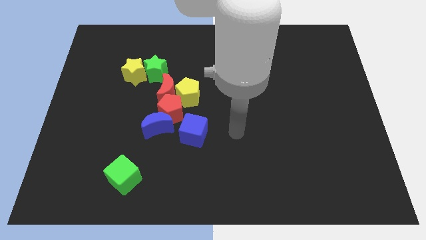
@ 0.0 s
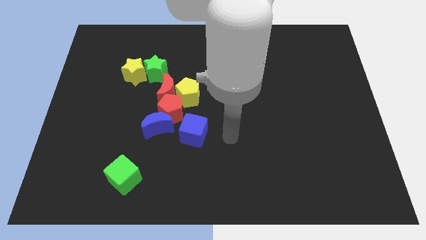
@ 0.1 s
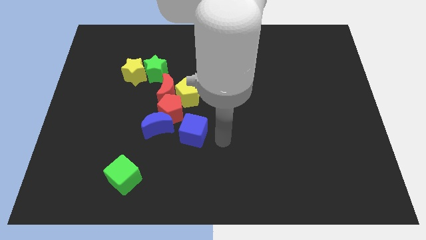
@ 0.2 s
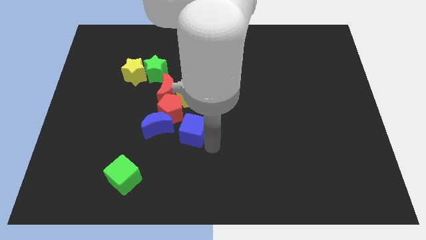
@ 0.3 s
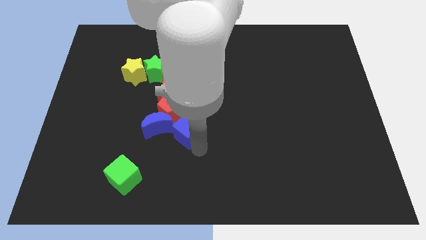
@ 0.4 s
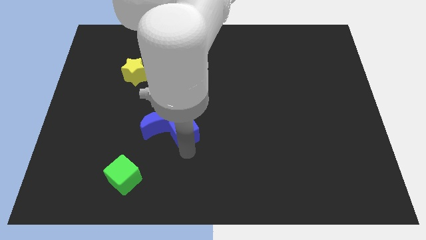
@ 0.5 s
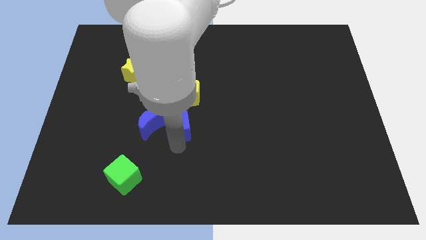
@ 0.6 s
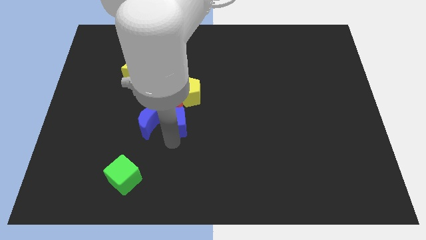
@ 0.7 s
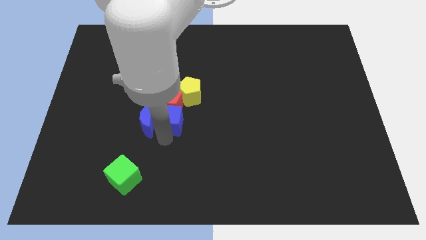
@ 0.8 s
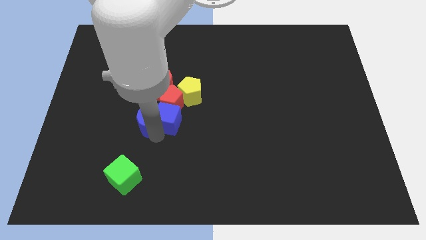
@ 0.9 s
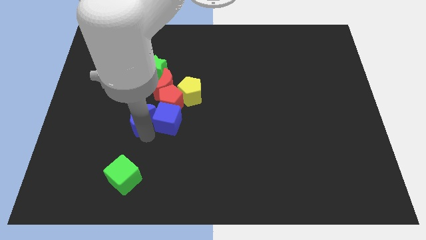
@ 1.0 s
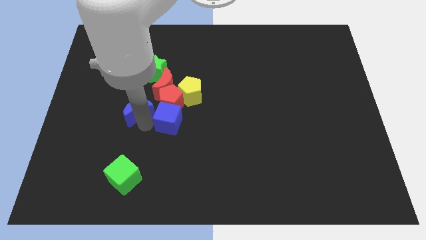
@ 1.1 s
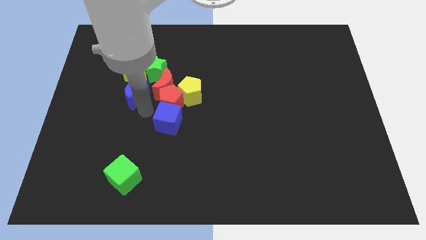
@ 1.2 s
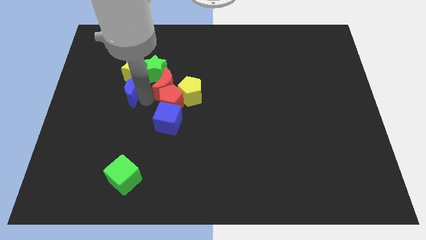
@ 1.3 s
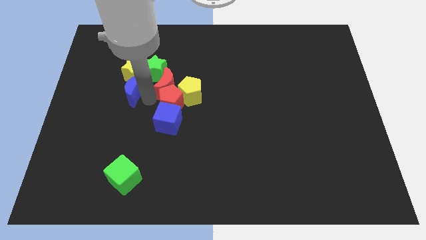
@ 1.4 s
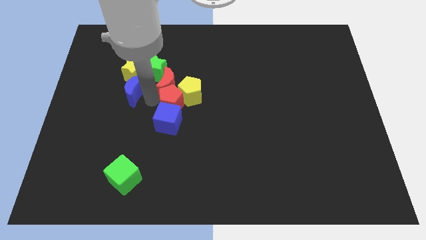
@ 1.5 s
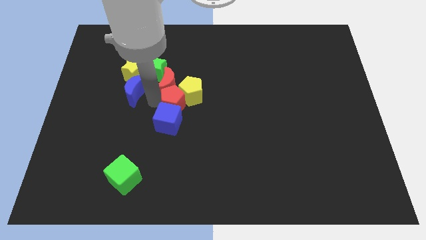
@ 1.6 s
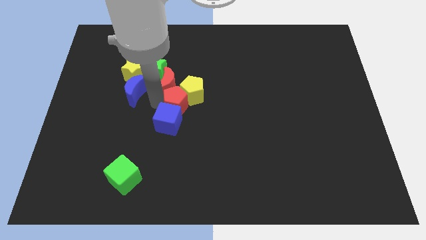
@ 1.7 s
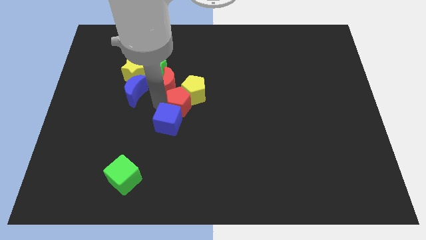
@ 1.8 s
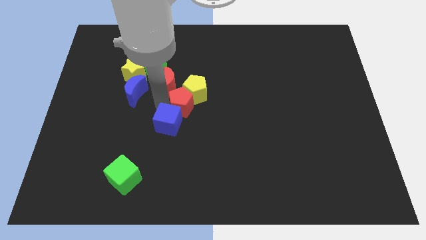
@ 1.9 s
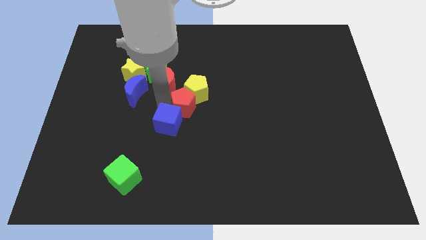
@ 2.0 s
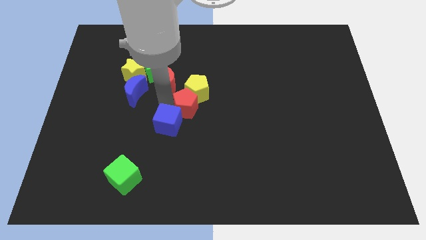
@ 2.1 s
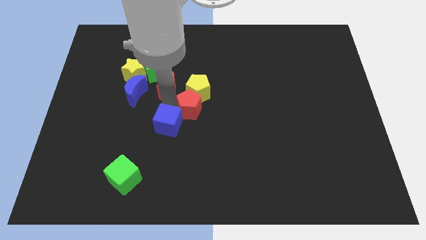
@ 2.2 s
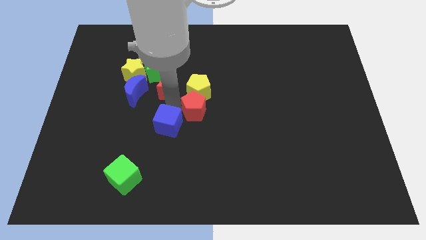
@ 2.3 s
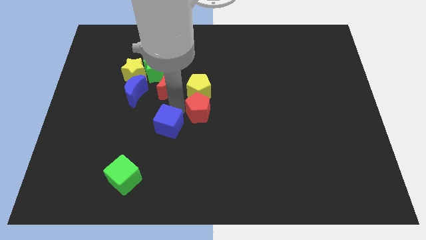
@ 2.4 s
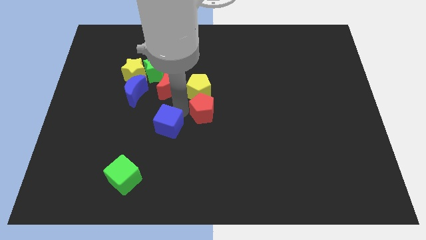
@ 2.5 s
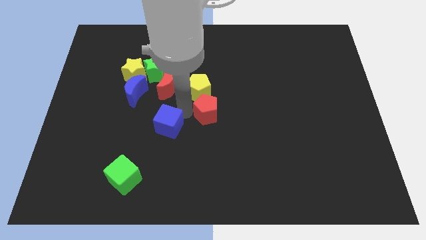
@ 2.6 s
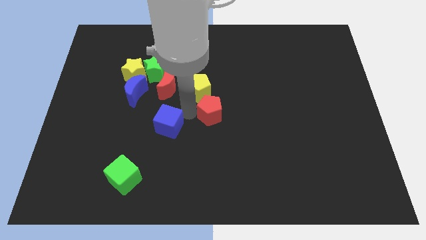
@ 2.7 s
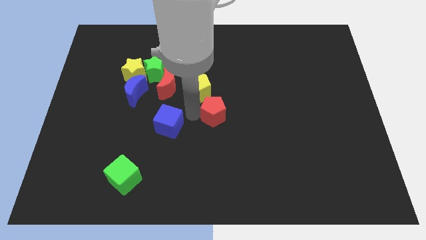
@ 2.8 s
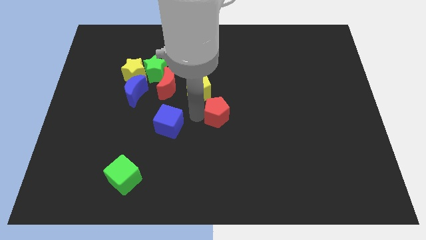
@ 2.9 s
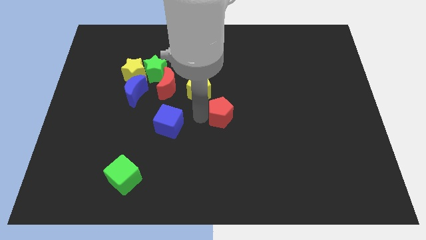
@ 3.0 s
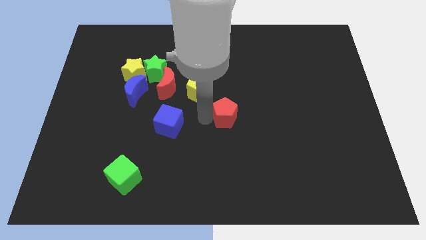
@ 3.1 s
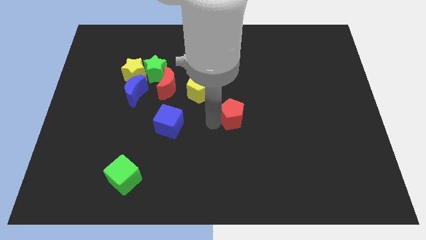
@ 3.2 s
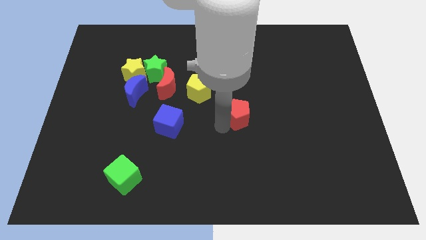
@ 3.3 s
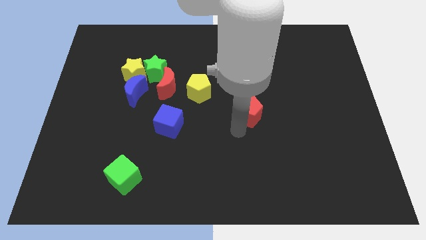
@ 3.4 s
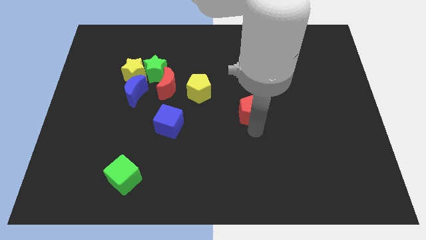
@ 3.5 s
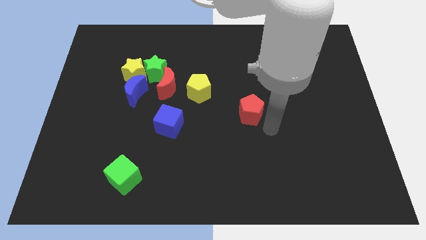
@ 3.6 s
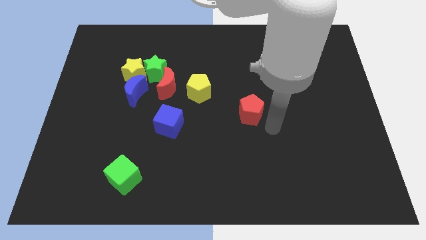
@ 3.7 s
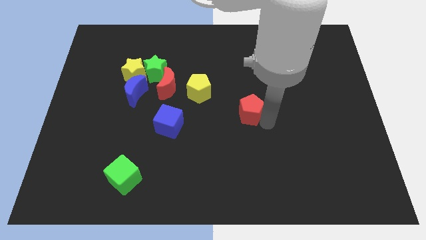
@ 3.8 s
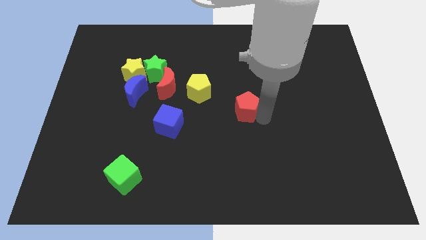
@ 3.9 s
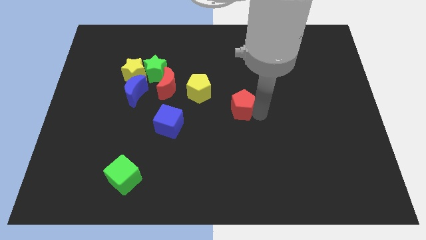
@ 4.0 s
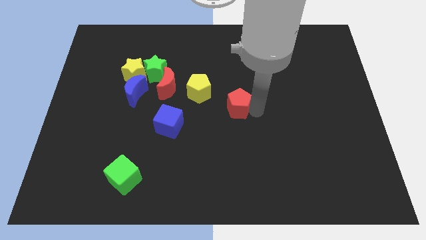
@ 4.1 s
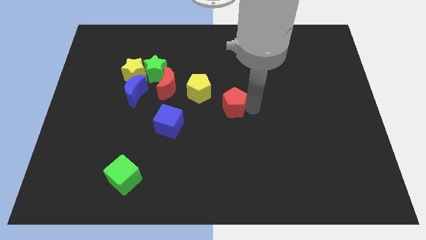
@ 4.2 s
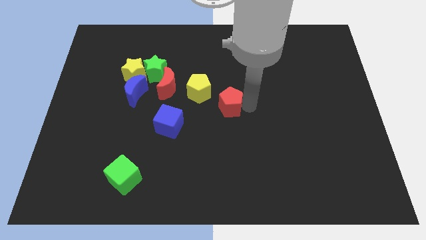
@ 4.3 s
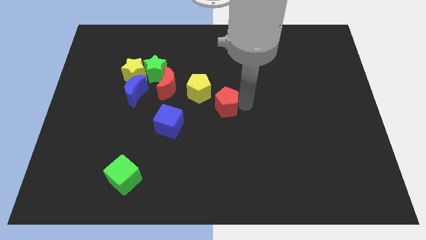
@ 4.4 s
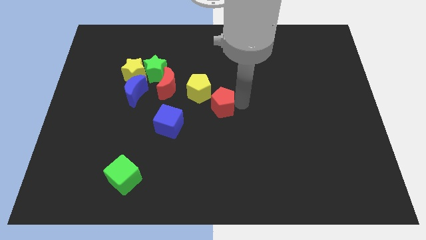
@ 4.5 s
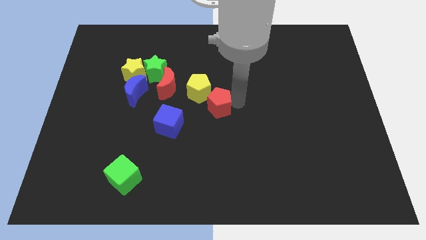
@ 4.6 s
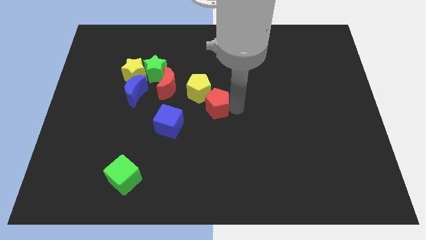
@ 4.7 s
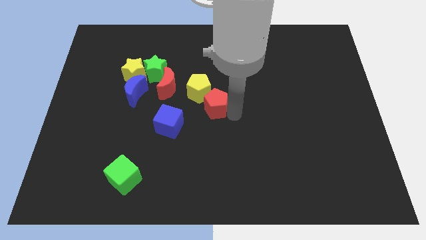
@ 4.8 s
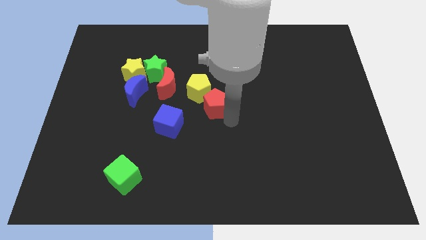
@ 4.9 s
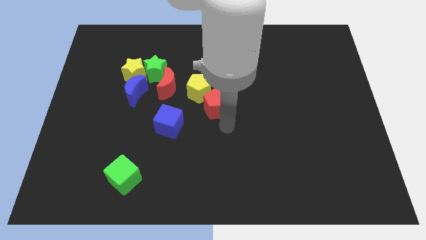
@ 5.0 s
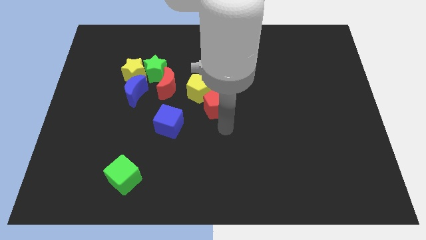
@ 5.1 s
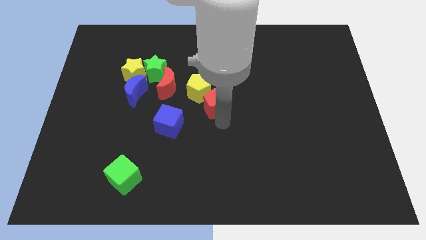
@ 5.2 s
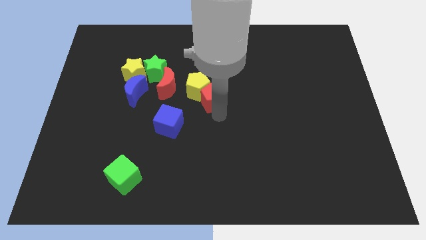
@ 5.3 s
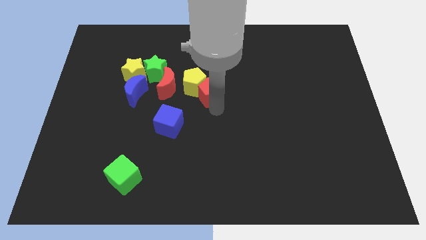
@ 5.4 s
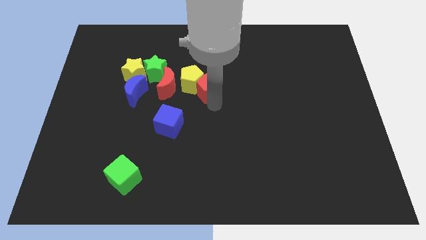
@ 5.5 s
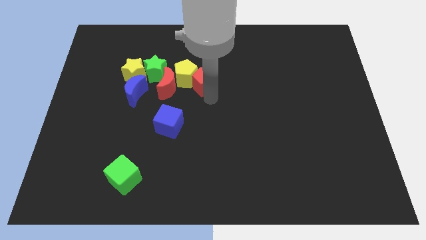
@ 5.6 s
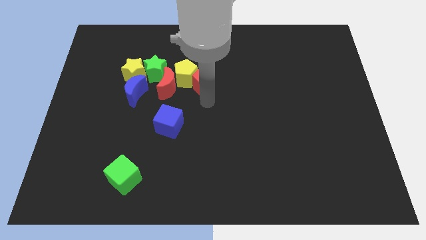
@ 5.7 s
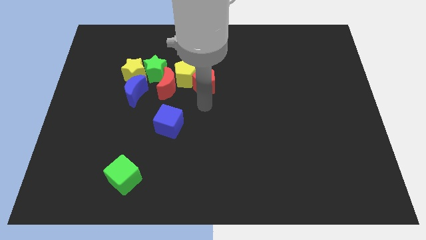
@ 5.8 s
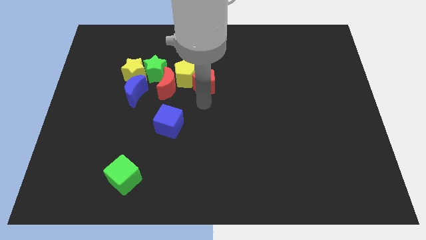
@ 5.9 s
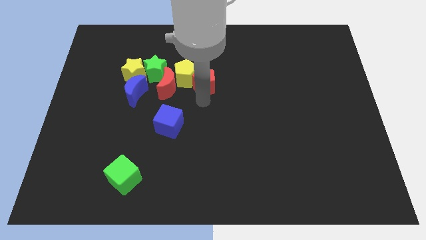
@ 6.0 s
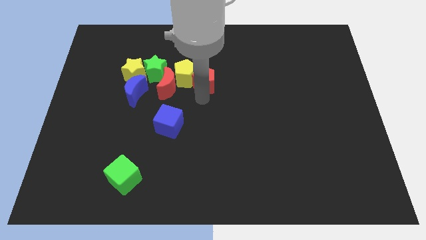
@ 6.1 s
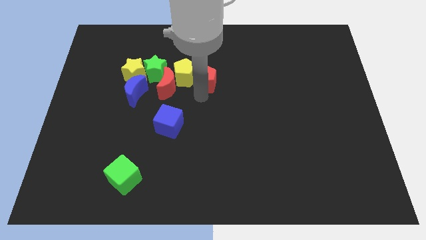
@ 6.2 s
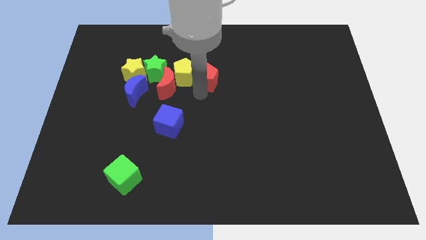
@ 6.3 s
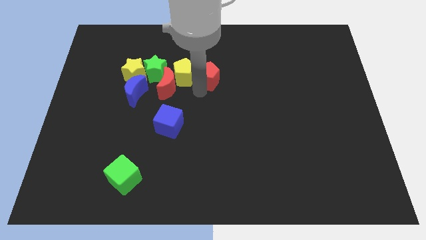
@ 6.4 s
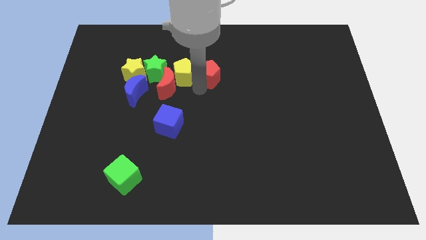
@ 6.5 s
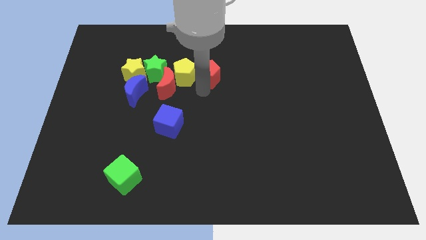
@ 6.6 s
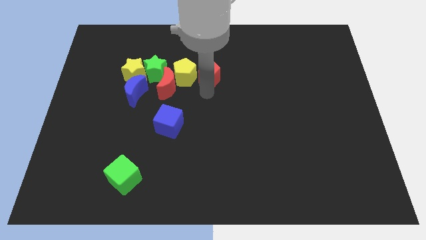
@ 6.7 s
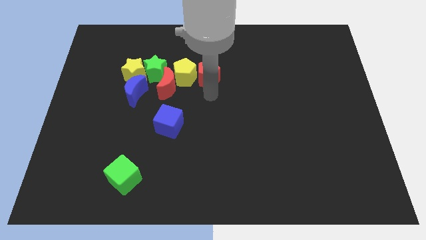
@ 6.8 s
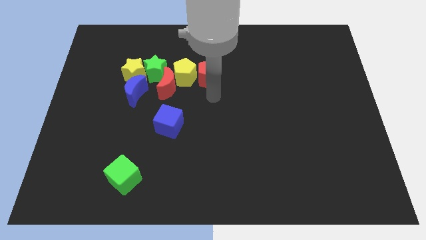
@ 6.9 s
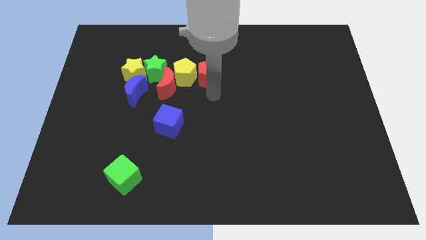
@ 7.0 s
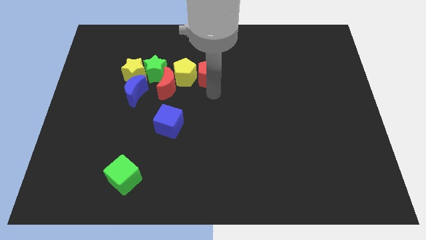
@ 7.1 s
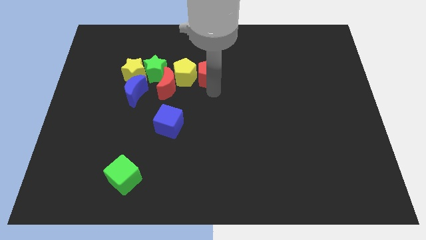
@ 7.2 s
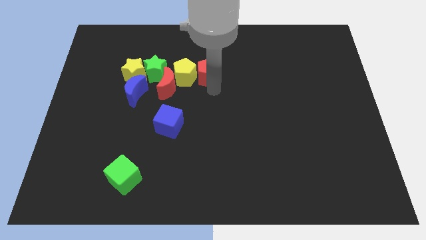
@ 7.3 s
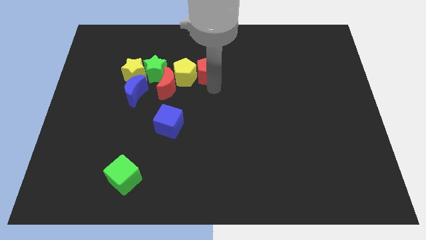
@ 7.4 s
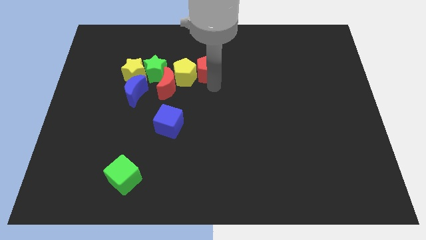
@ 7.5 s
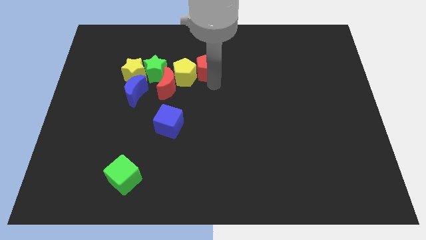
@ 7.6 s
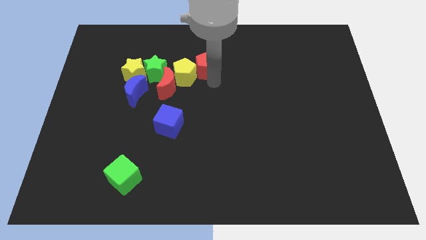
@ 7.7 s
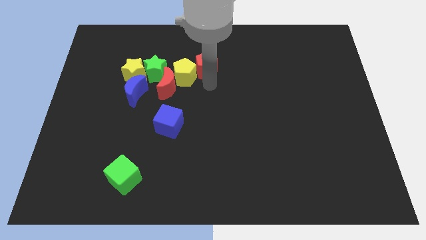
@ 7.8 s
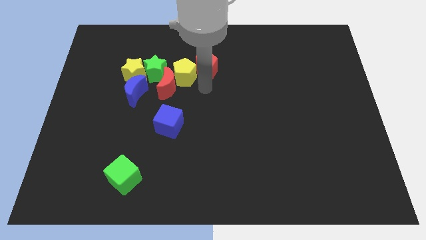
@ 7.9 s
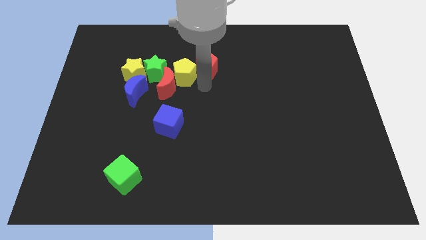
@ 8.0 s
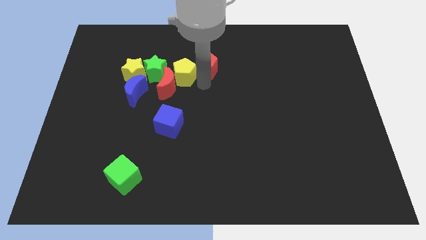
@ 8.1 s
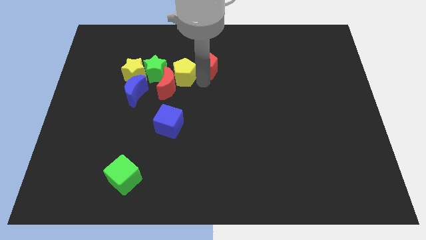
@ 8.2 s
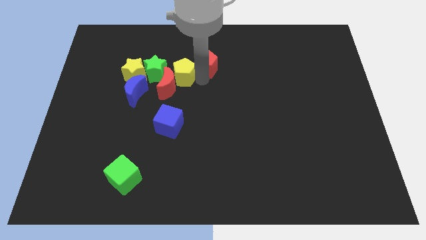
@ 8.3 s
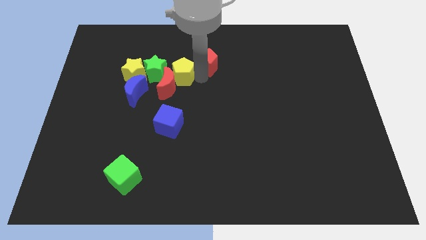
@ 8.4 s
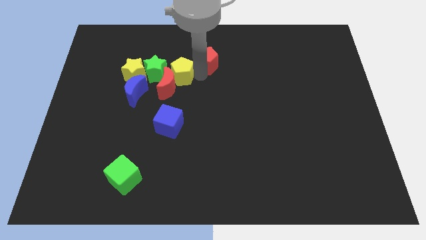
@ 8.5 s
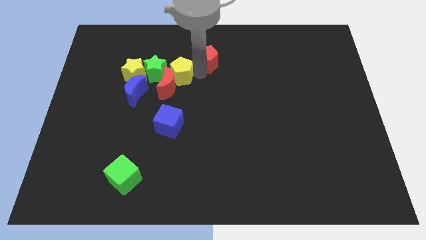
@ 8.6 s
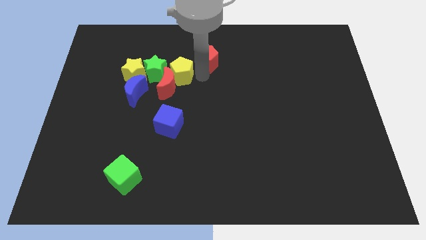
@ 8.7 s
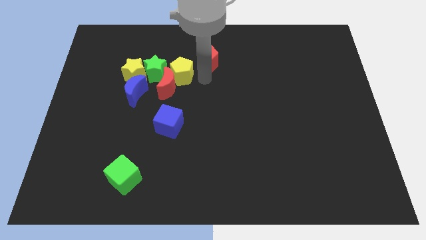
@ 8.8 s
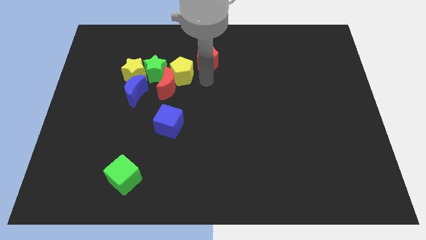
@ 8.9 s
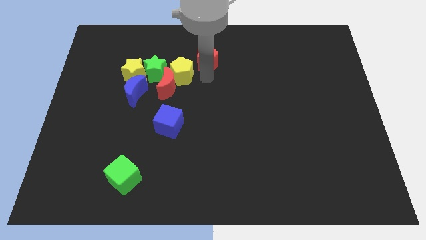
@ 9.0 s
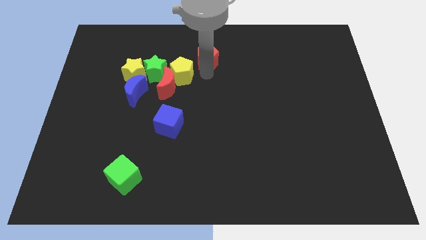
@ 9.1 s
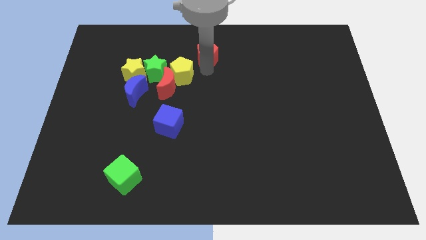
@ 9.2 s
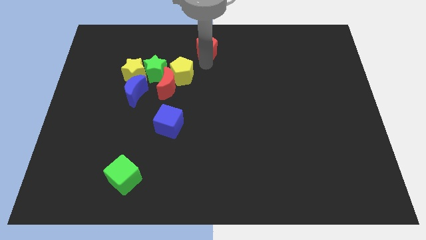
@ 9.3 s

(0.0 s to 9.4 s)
push the red pentagon to the towards your base
